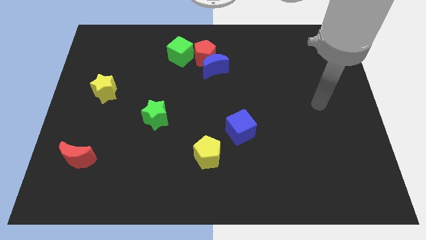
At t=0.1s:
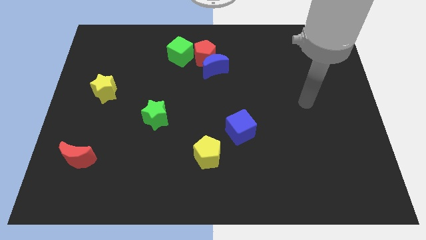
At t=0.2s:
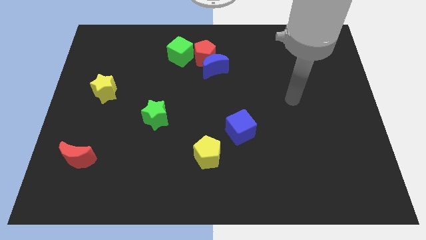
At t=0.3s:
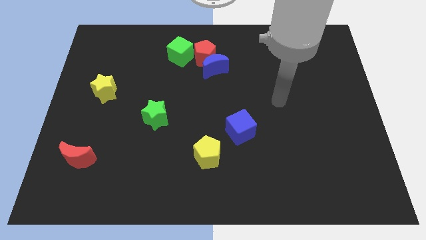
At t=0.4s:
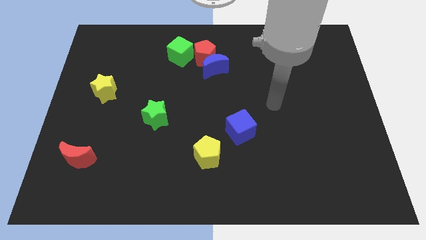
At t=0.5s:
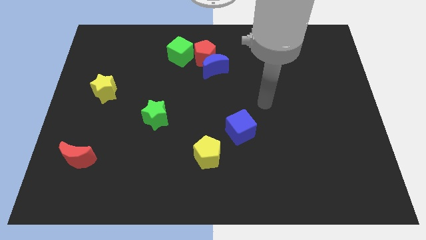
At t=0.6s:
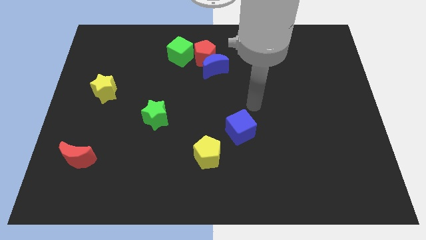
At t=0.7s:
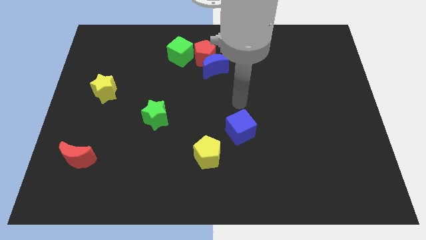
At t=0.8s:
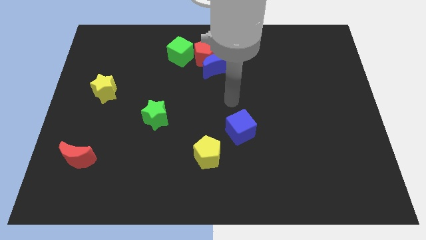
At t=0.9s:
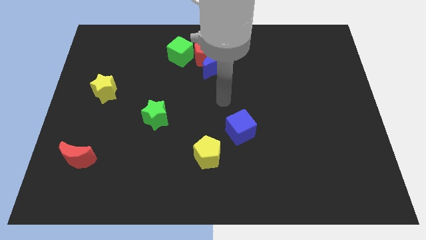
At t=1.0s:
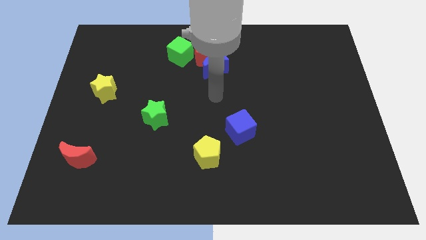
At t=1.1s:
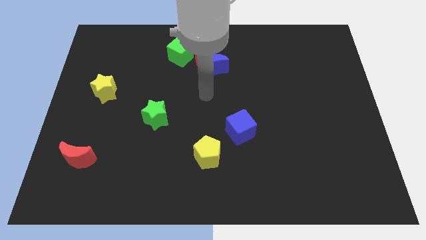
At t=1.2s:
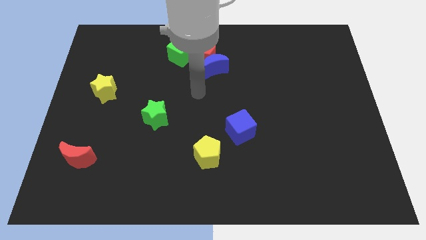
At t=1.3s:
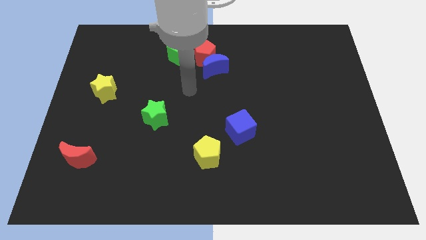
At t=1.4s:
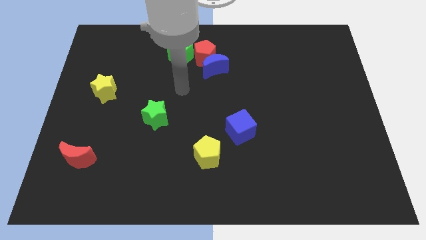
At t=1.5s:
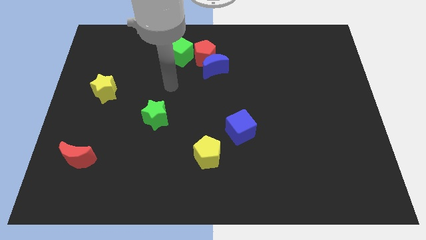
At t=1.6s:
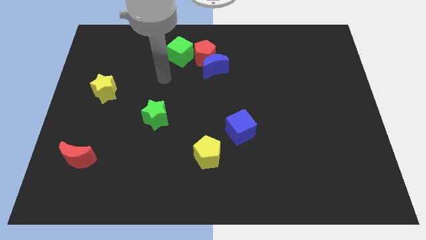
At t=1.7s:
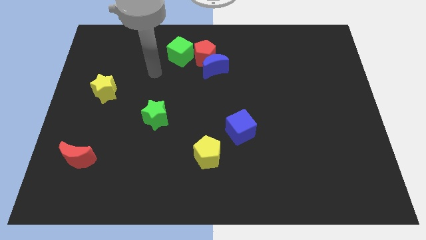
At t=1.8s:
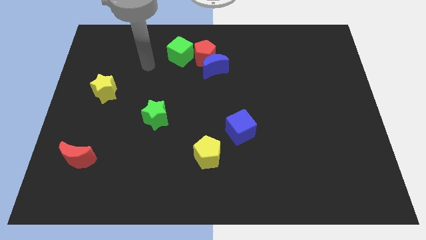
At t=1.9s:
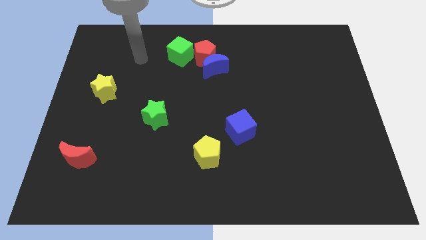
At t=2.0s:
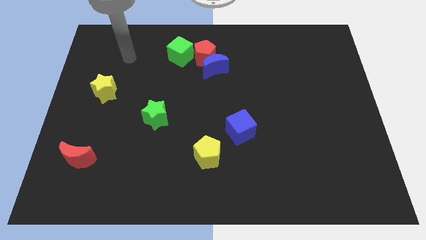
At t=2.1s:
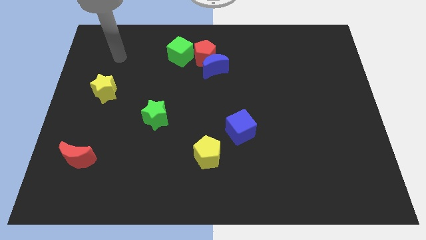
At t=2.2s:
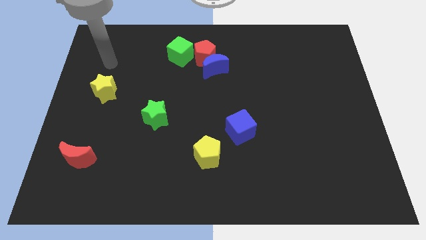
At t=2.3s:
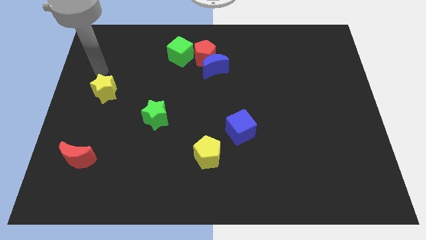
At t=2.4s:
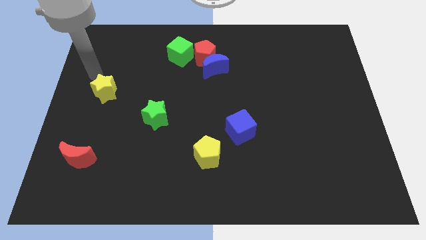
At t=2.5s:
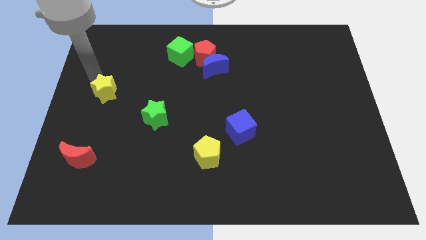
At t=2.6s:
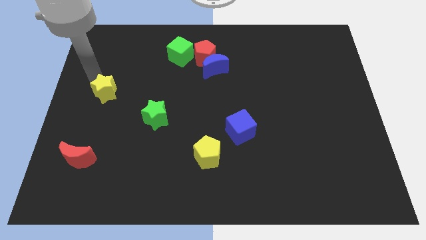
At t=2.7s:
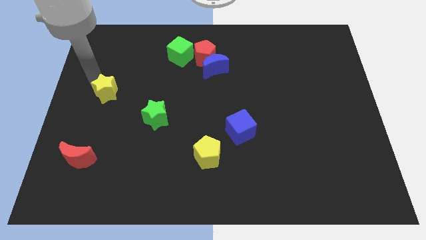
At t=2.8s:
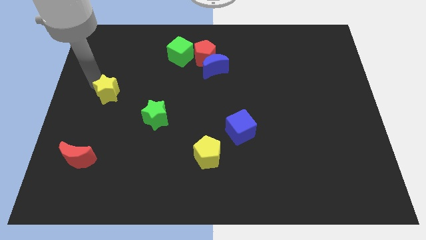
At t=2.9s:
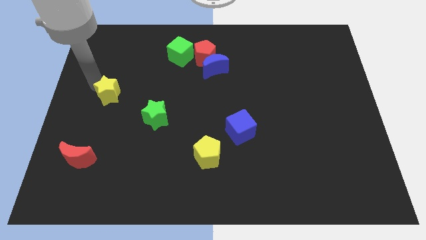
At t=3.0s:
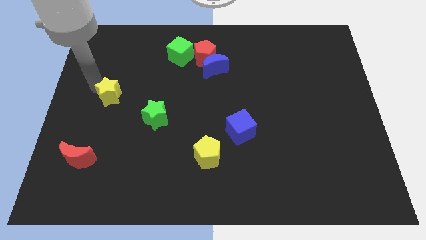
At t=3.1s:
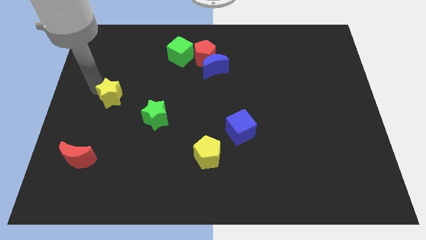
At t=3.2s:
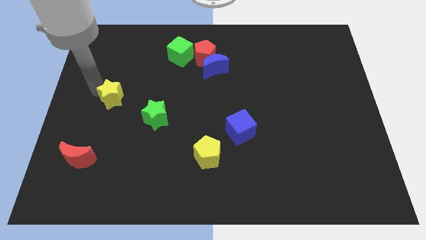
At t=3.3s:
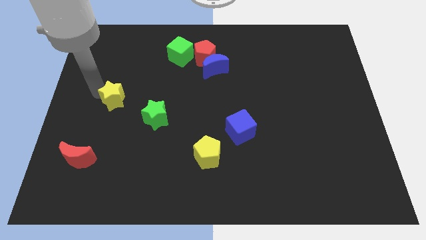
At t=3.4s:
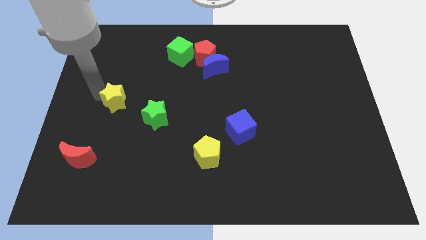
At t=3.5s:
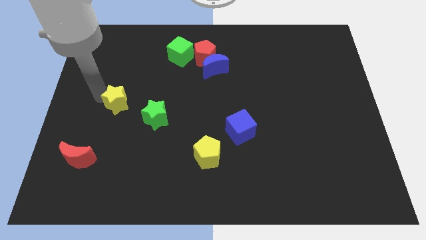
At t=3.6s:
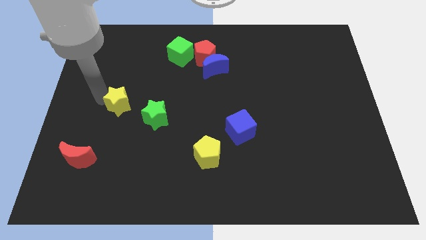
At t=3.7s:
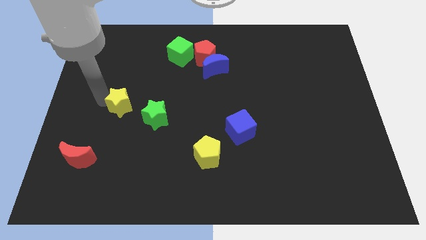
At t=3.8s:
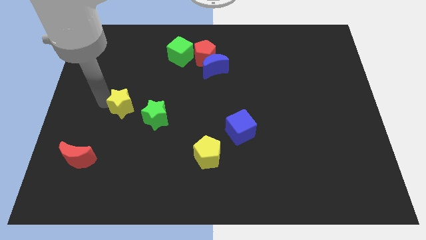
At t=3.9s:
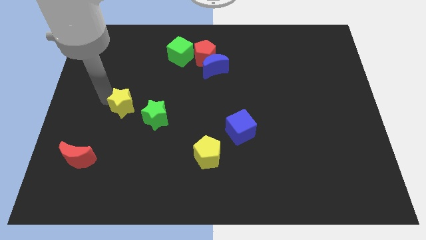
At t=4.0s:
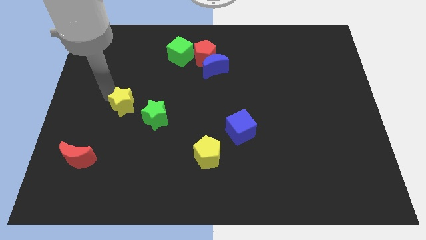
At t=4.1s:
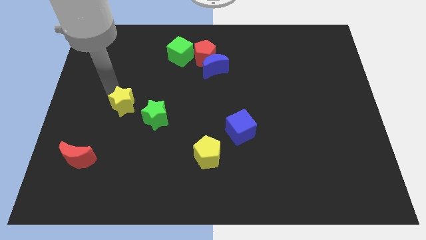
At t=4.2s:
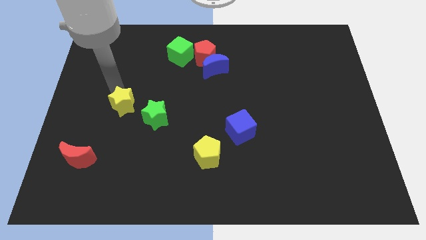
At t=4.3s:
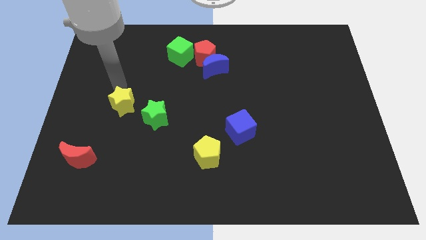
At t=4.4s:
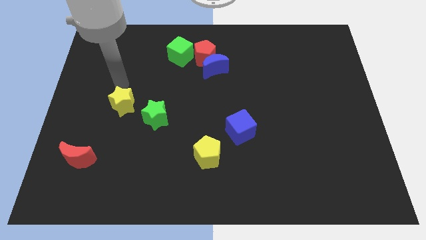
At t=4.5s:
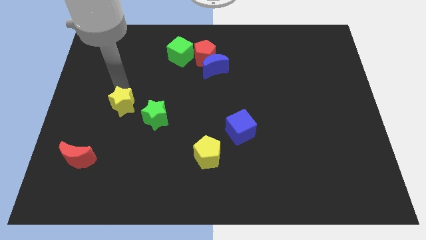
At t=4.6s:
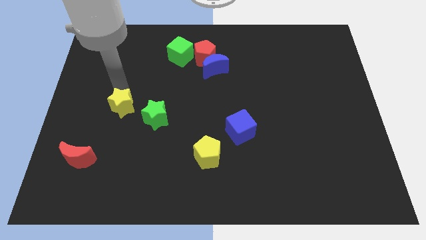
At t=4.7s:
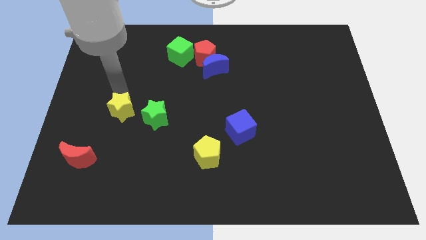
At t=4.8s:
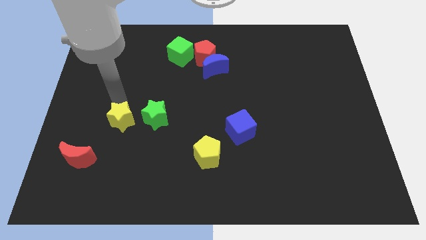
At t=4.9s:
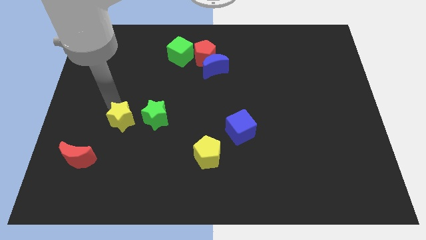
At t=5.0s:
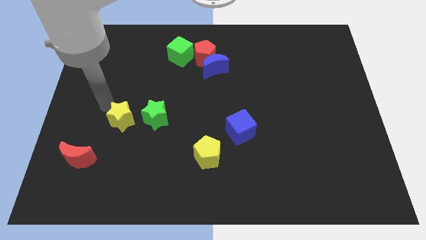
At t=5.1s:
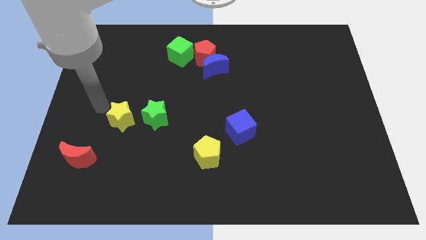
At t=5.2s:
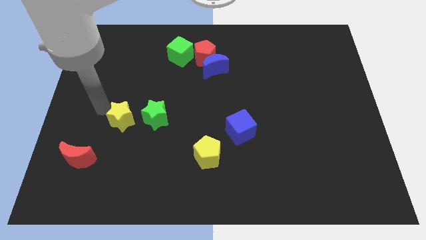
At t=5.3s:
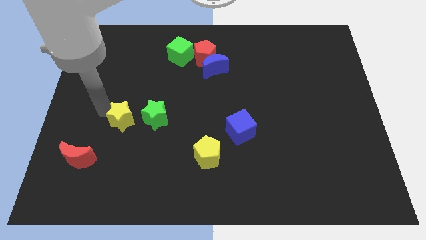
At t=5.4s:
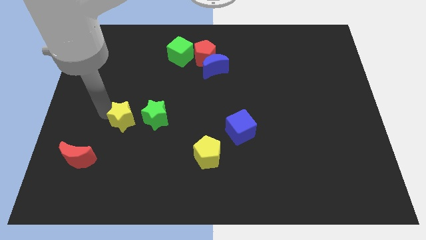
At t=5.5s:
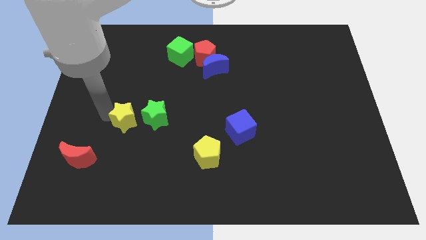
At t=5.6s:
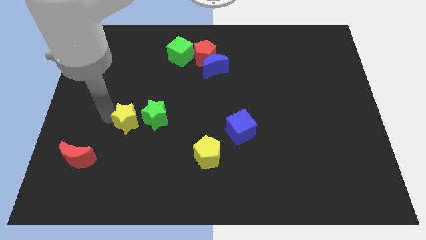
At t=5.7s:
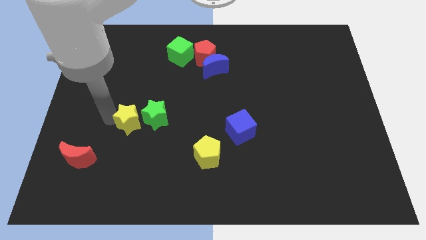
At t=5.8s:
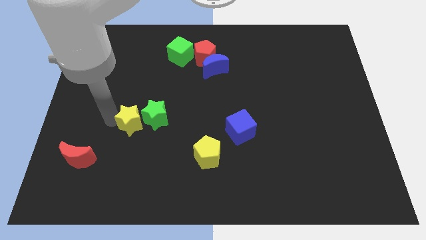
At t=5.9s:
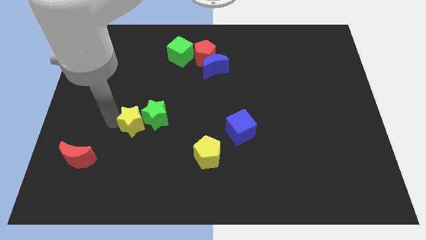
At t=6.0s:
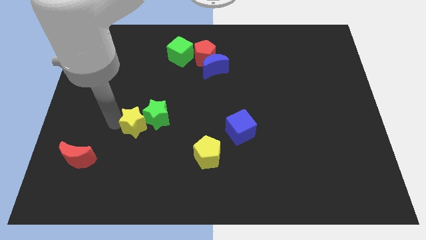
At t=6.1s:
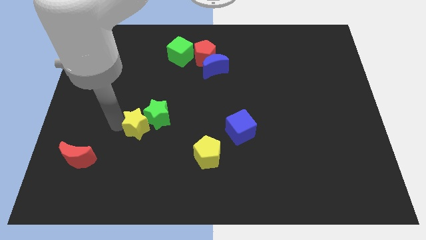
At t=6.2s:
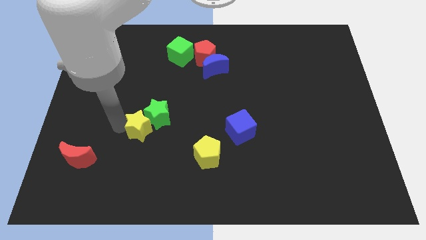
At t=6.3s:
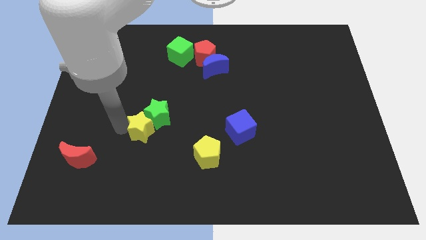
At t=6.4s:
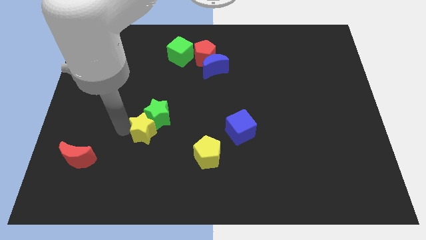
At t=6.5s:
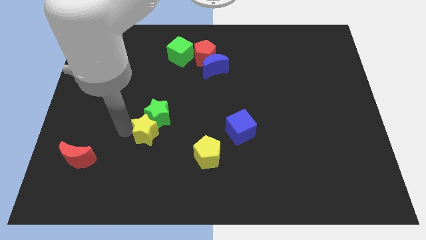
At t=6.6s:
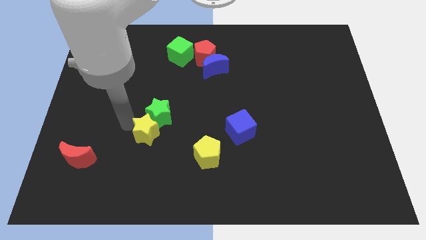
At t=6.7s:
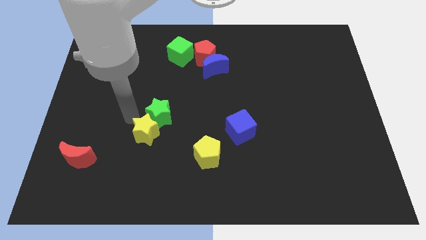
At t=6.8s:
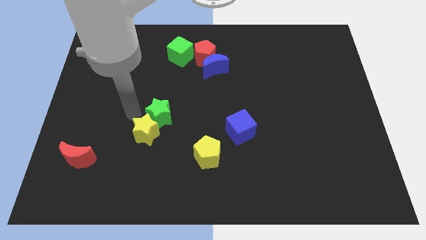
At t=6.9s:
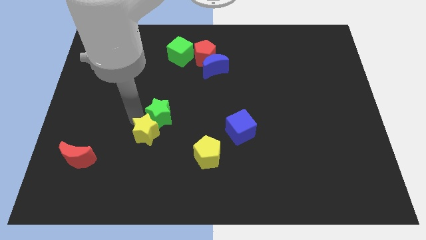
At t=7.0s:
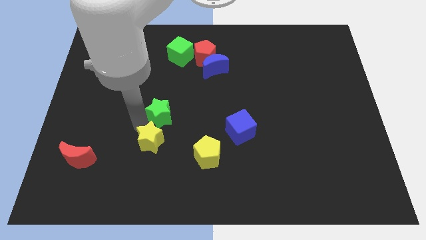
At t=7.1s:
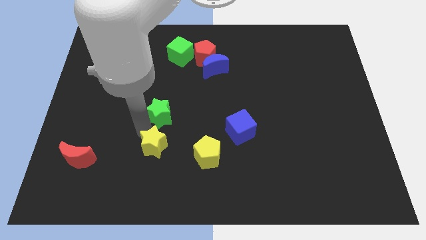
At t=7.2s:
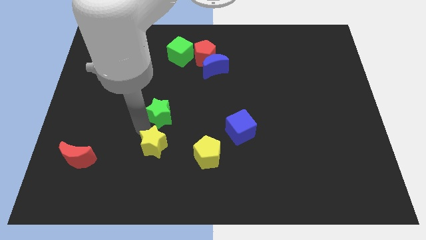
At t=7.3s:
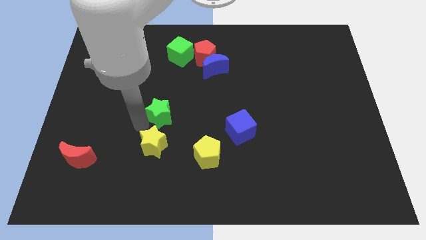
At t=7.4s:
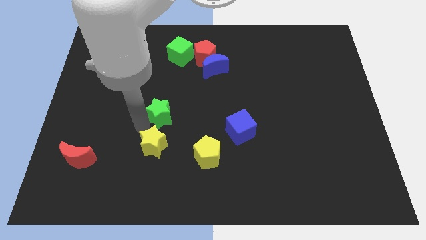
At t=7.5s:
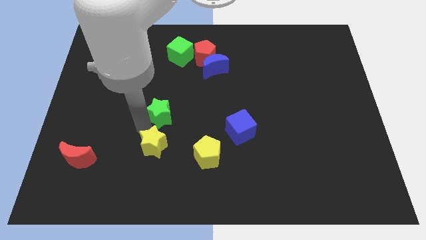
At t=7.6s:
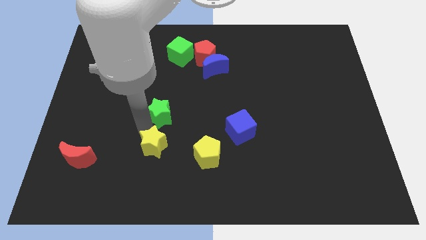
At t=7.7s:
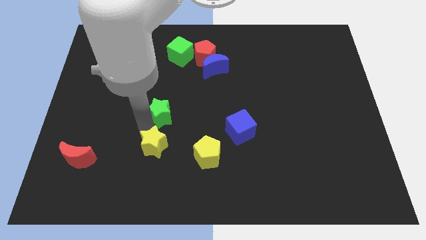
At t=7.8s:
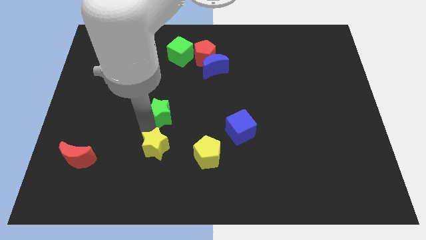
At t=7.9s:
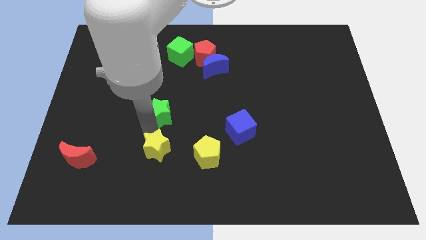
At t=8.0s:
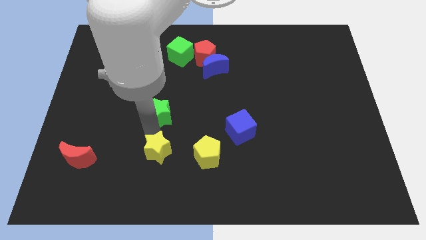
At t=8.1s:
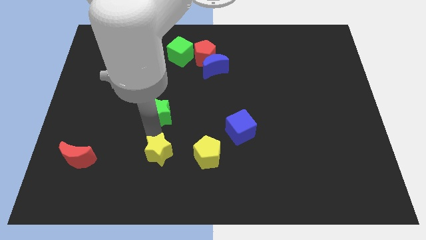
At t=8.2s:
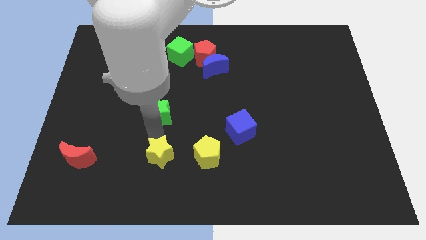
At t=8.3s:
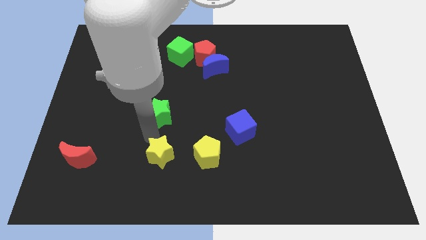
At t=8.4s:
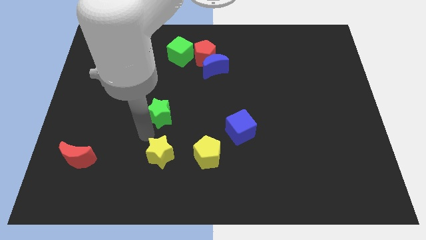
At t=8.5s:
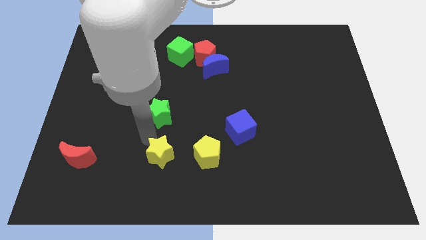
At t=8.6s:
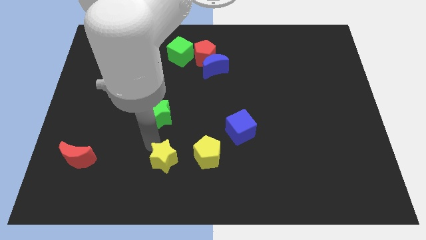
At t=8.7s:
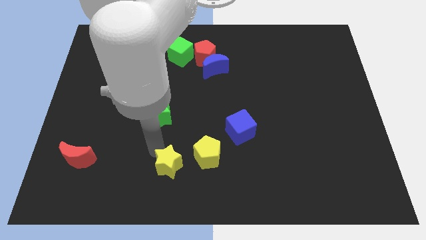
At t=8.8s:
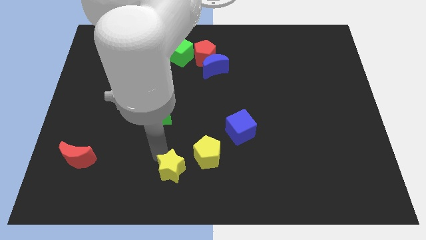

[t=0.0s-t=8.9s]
put the yellow star to the bottom
